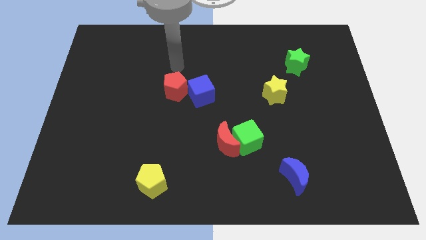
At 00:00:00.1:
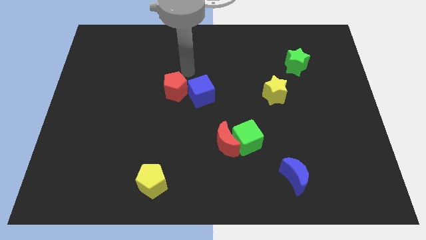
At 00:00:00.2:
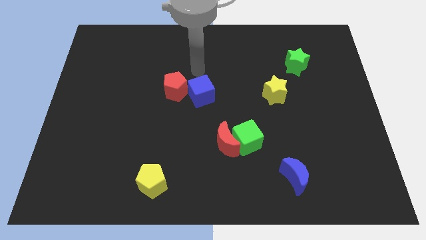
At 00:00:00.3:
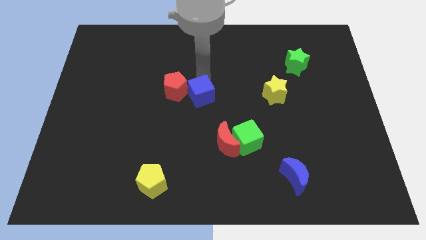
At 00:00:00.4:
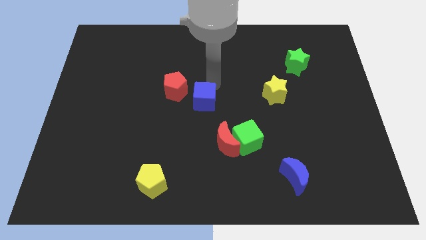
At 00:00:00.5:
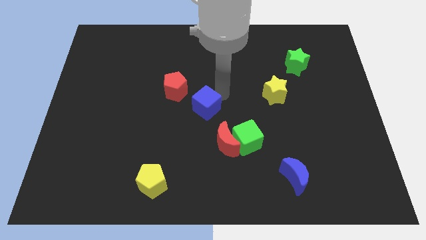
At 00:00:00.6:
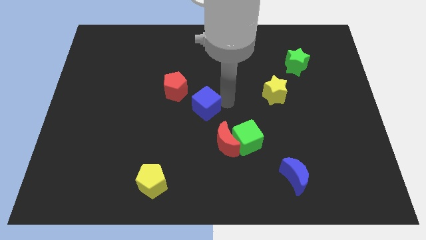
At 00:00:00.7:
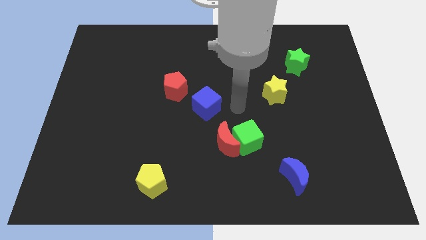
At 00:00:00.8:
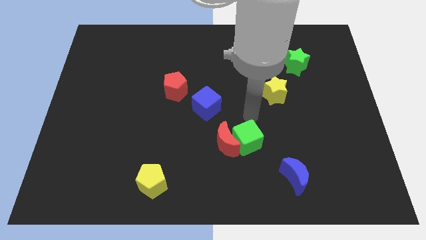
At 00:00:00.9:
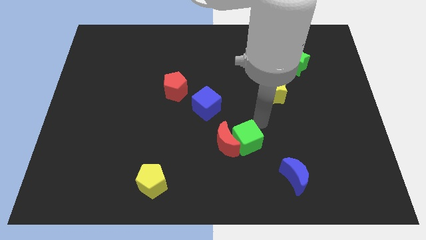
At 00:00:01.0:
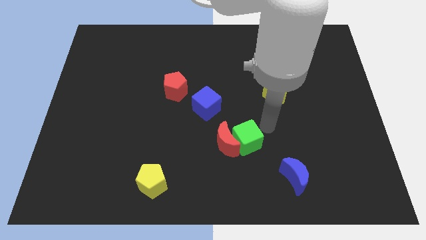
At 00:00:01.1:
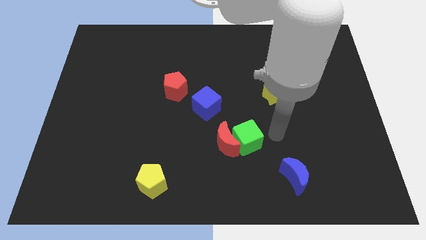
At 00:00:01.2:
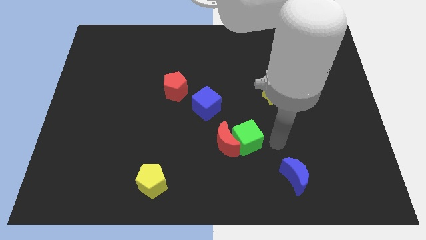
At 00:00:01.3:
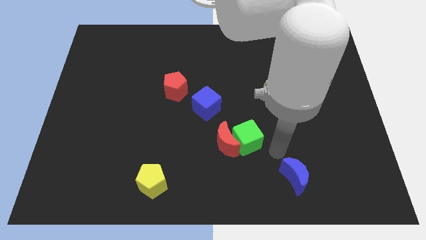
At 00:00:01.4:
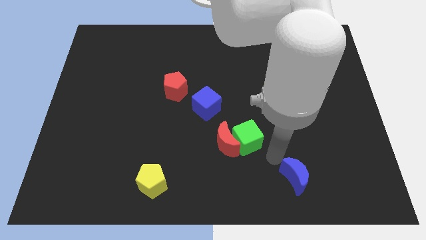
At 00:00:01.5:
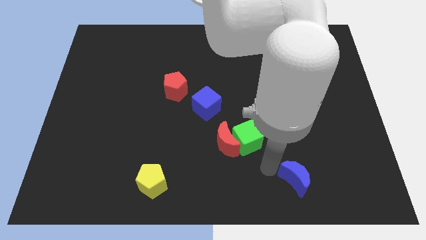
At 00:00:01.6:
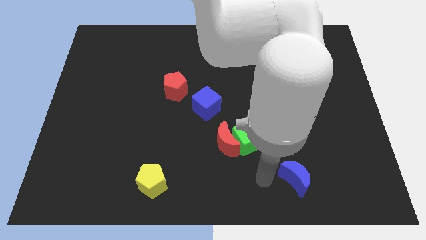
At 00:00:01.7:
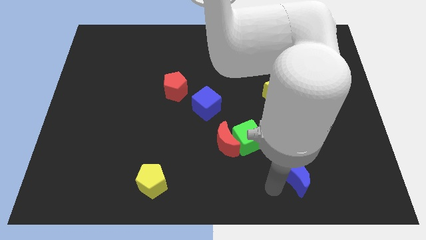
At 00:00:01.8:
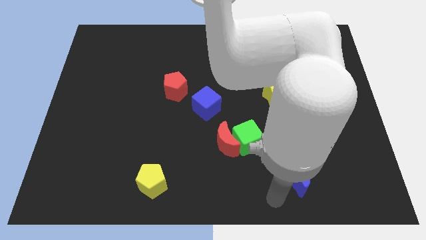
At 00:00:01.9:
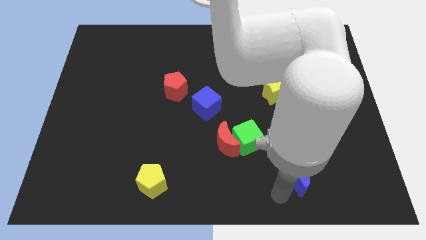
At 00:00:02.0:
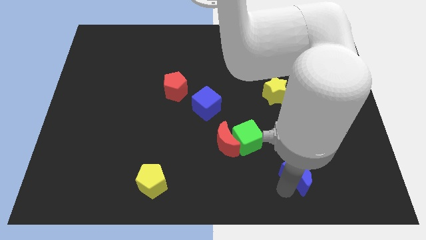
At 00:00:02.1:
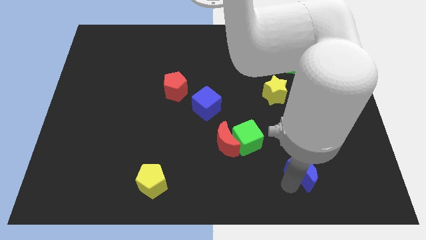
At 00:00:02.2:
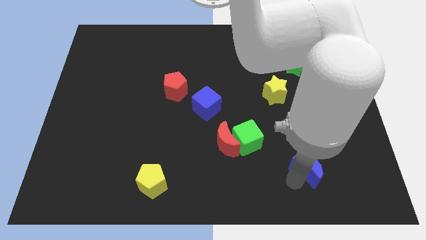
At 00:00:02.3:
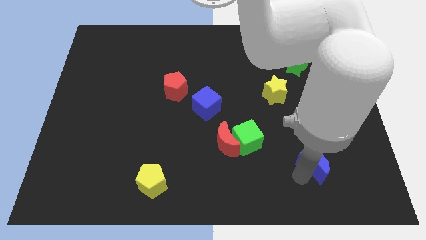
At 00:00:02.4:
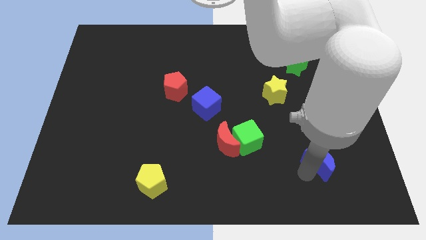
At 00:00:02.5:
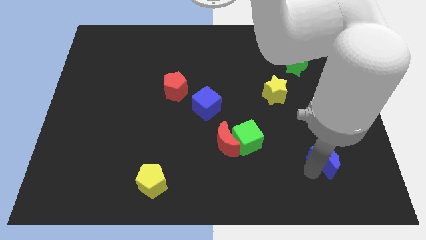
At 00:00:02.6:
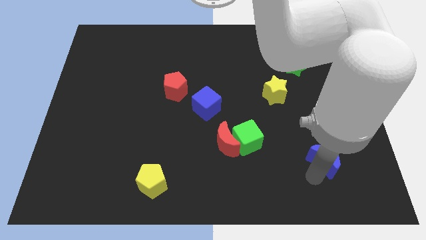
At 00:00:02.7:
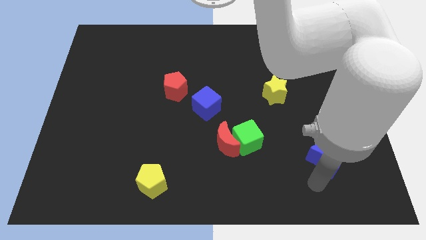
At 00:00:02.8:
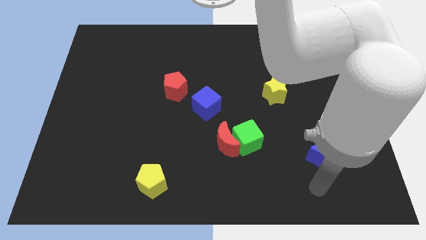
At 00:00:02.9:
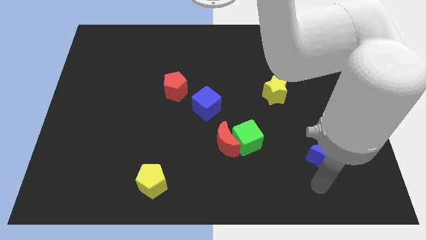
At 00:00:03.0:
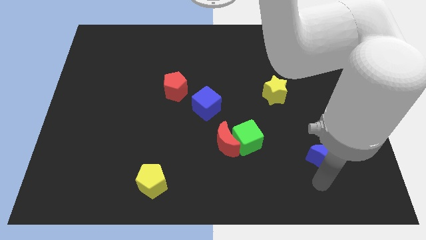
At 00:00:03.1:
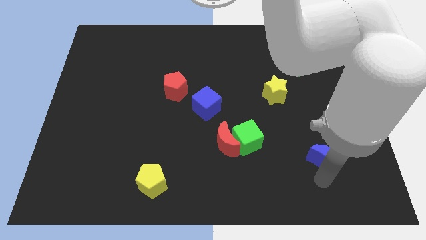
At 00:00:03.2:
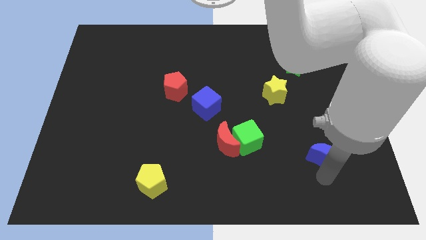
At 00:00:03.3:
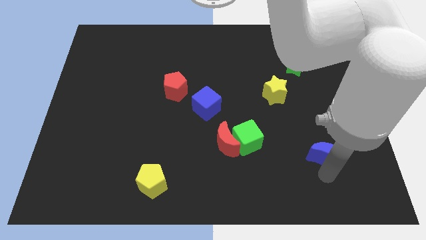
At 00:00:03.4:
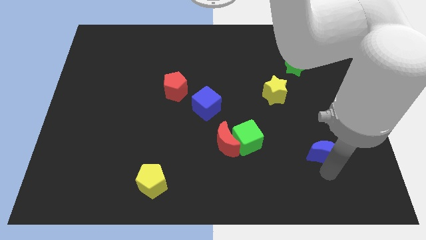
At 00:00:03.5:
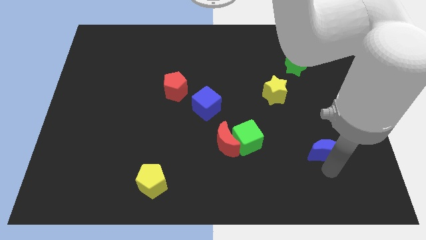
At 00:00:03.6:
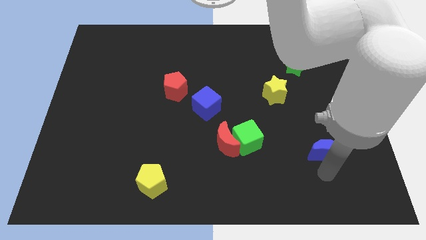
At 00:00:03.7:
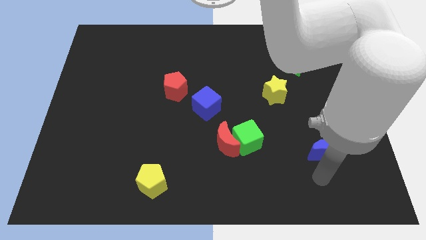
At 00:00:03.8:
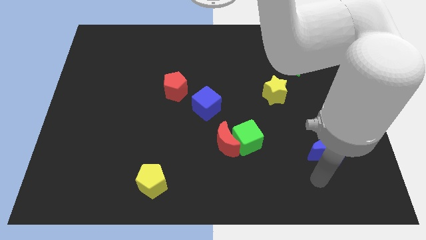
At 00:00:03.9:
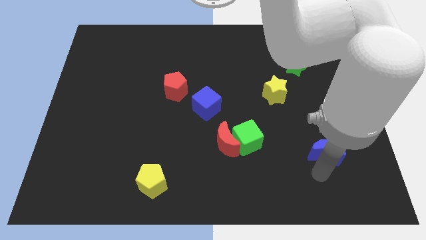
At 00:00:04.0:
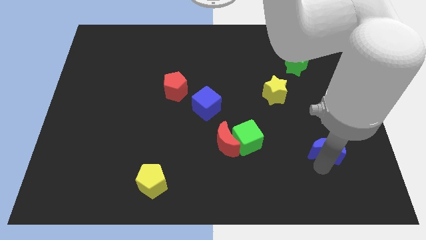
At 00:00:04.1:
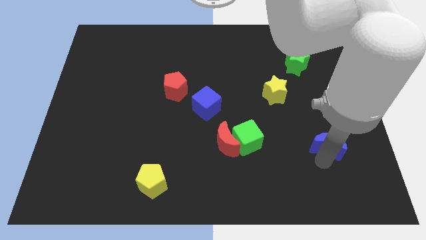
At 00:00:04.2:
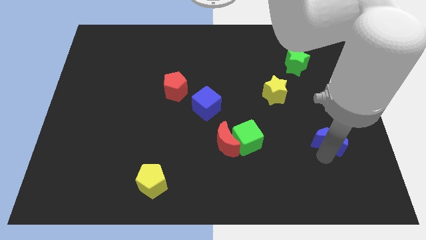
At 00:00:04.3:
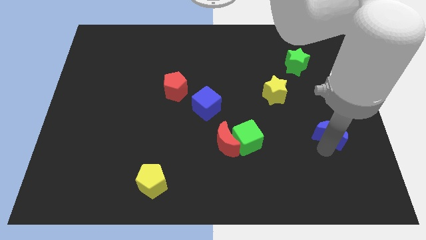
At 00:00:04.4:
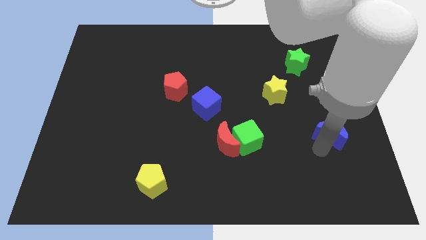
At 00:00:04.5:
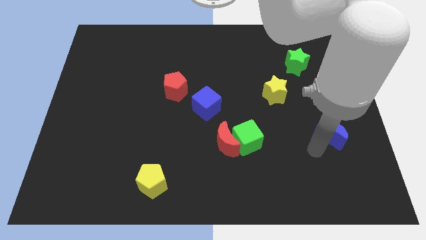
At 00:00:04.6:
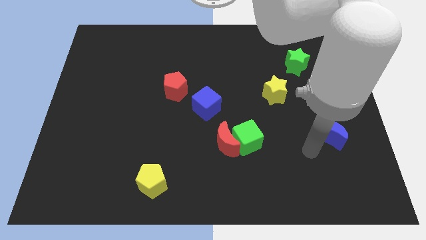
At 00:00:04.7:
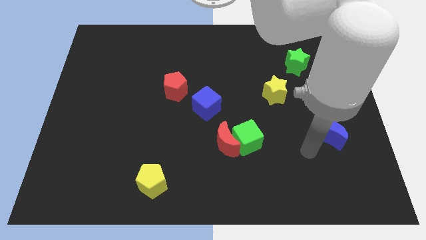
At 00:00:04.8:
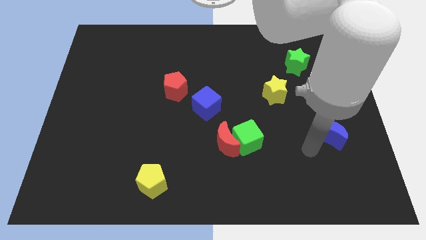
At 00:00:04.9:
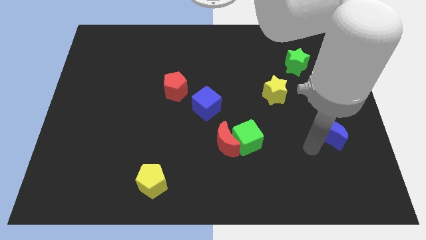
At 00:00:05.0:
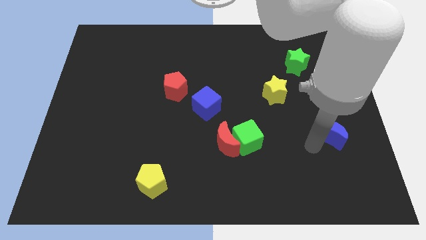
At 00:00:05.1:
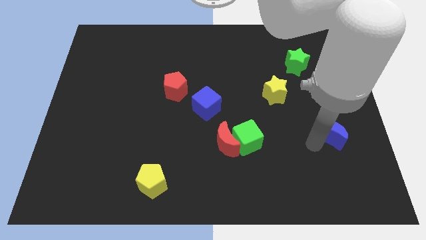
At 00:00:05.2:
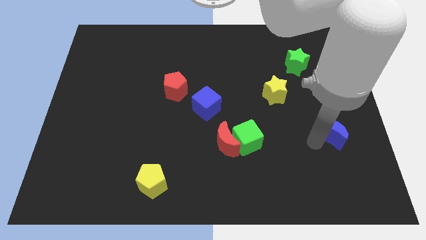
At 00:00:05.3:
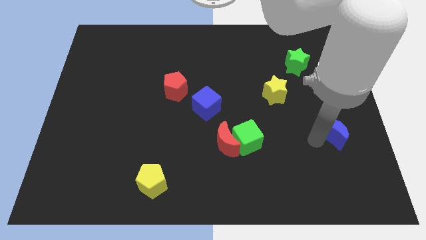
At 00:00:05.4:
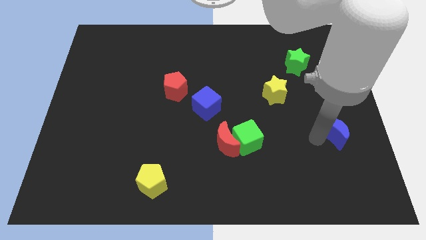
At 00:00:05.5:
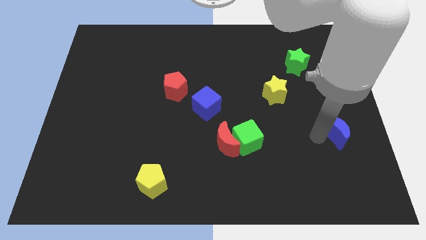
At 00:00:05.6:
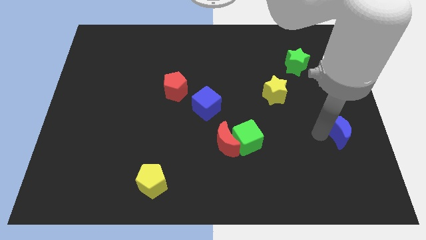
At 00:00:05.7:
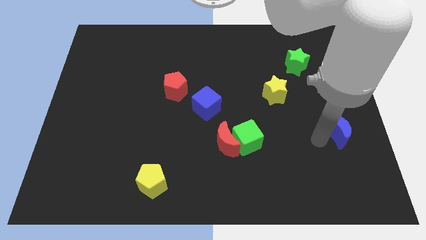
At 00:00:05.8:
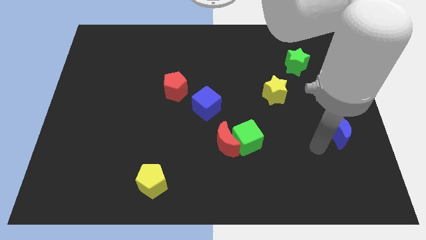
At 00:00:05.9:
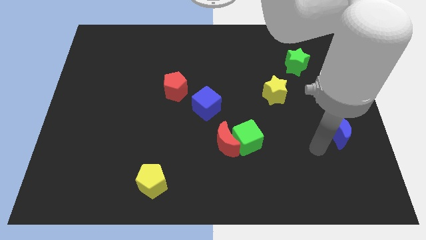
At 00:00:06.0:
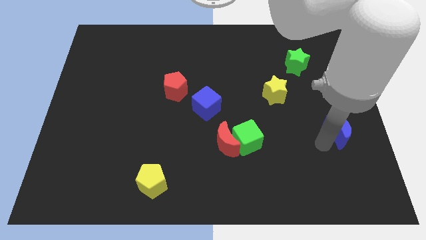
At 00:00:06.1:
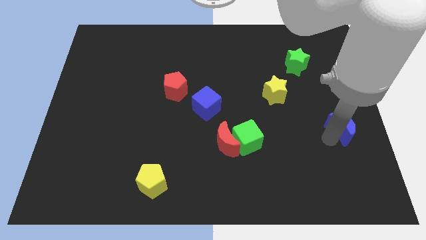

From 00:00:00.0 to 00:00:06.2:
slide the blue moon to the right side of the board

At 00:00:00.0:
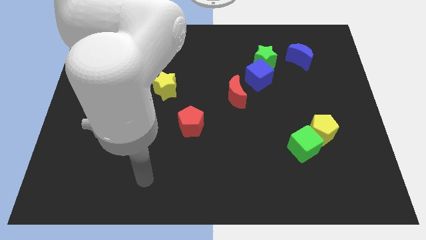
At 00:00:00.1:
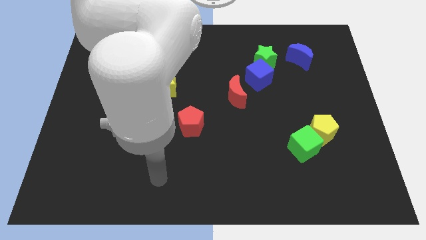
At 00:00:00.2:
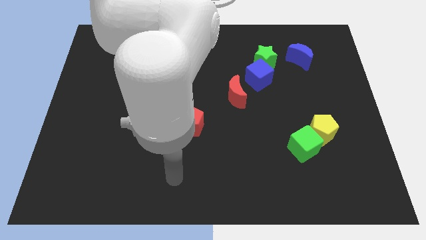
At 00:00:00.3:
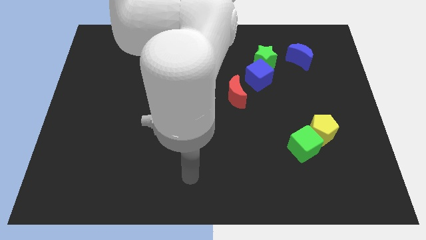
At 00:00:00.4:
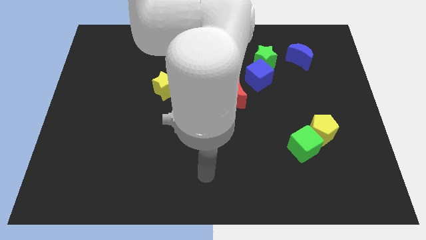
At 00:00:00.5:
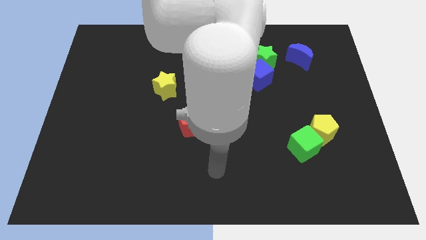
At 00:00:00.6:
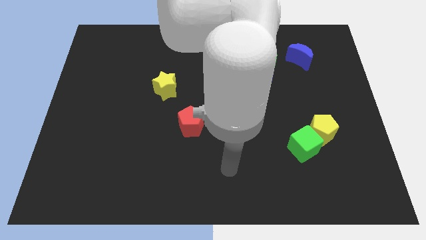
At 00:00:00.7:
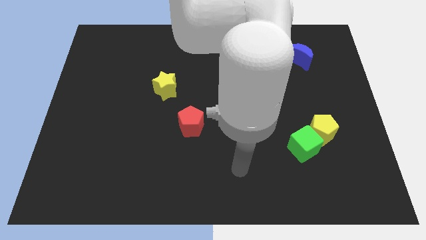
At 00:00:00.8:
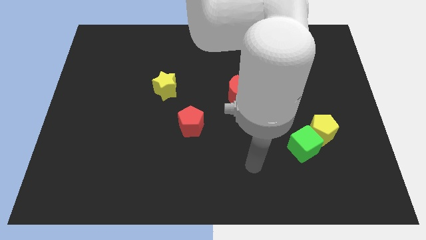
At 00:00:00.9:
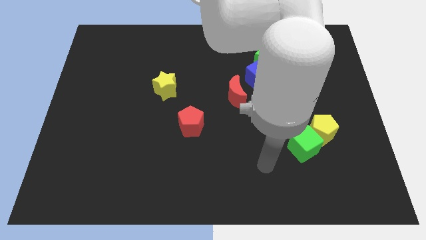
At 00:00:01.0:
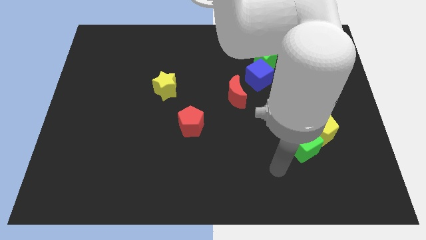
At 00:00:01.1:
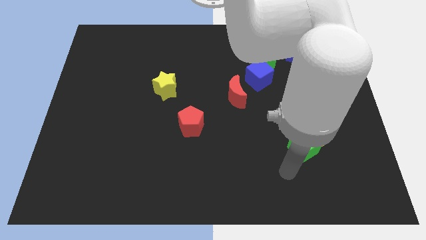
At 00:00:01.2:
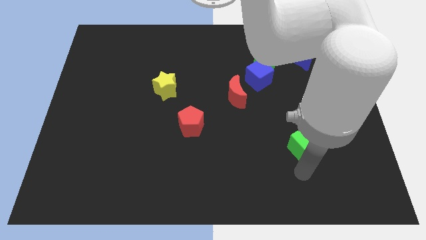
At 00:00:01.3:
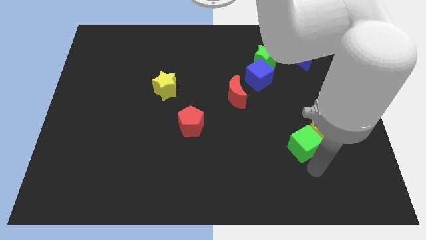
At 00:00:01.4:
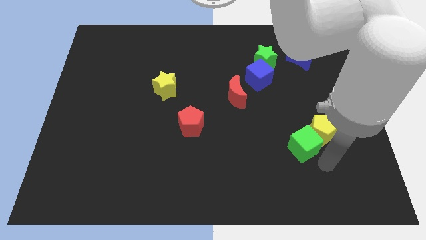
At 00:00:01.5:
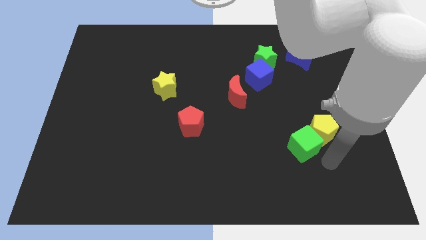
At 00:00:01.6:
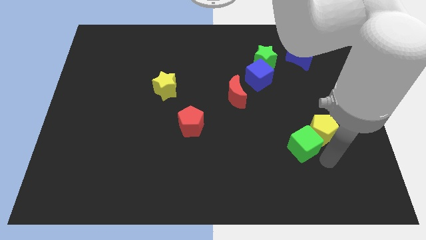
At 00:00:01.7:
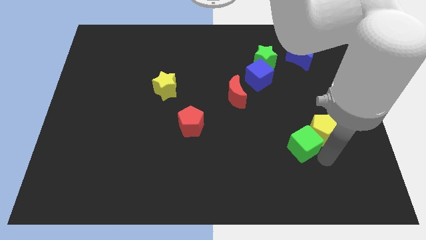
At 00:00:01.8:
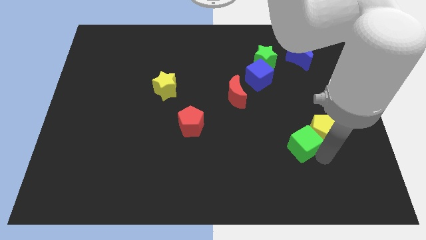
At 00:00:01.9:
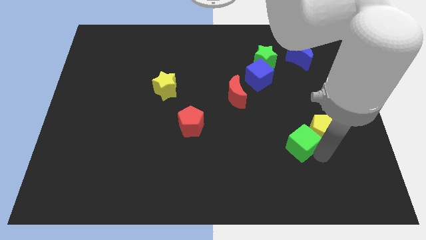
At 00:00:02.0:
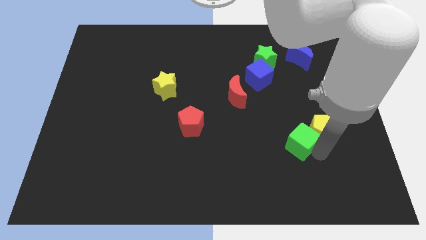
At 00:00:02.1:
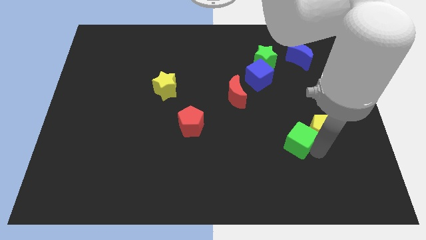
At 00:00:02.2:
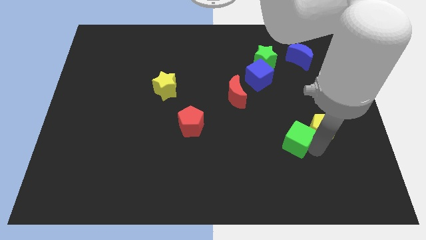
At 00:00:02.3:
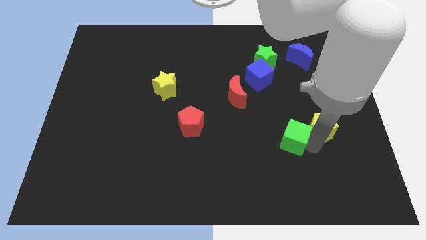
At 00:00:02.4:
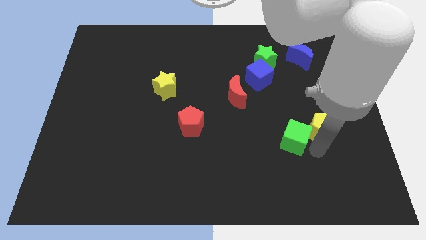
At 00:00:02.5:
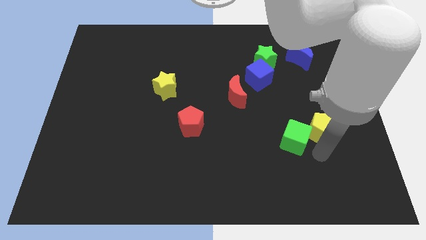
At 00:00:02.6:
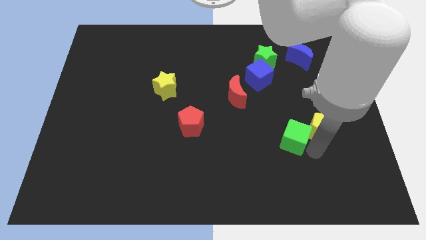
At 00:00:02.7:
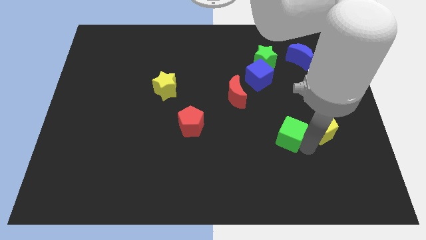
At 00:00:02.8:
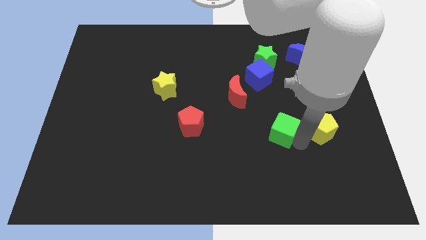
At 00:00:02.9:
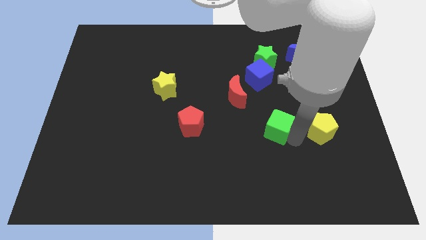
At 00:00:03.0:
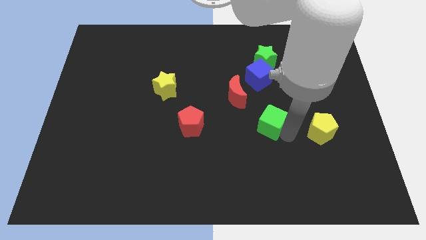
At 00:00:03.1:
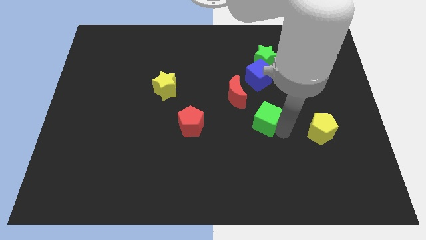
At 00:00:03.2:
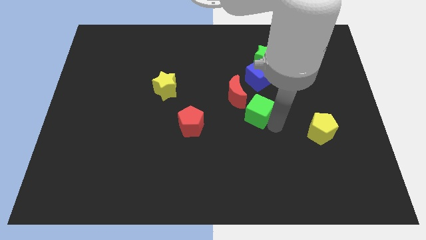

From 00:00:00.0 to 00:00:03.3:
put the green cube to the middle
